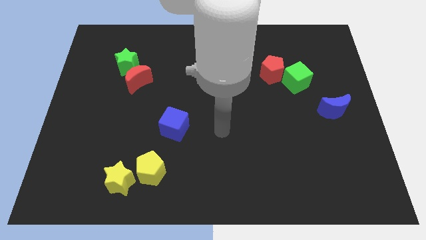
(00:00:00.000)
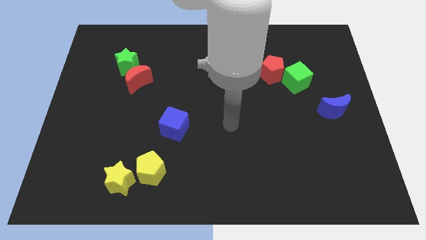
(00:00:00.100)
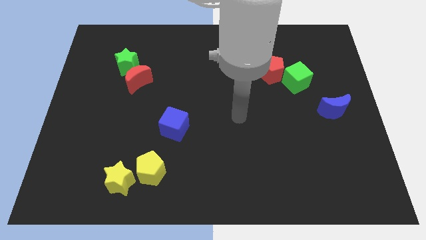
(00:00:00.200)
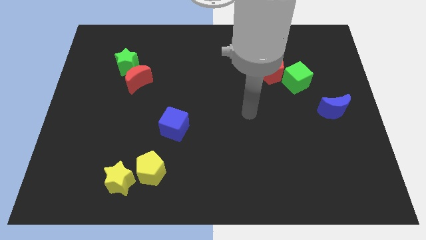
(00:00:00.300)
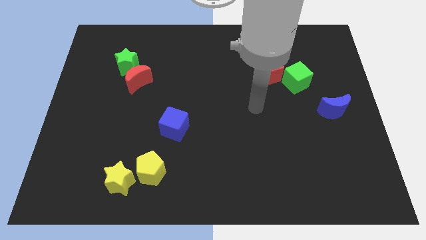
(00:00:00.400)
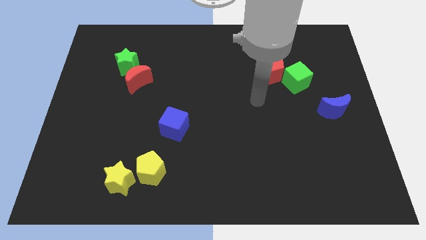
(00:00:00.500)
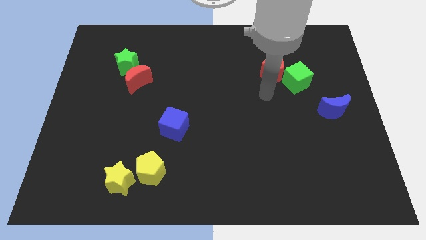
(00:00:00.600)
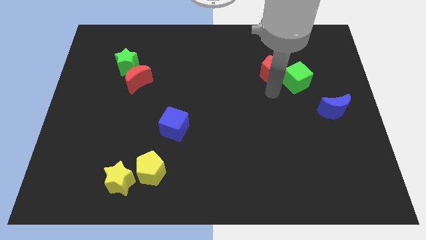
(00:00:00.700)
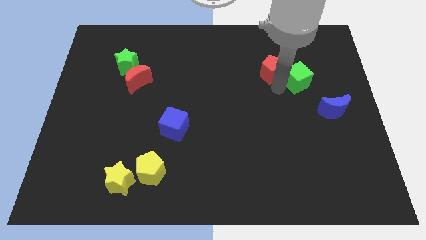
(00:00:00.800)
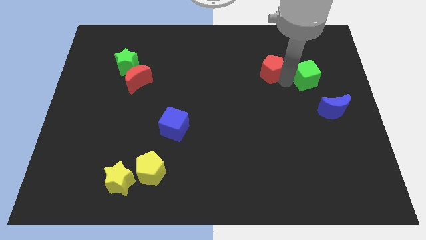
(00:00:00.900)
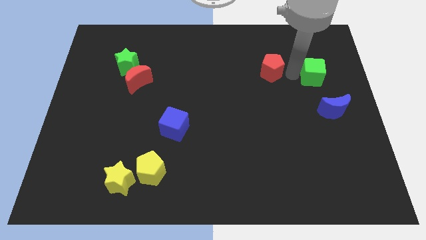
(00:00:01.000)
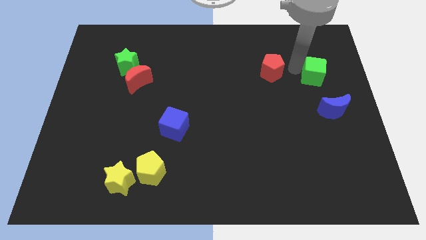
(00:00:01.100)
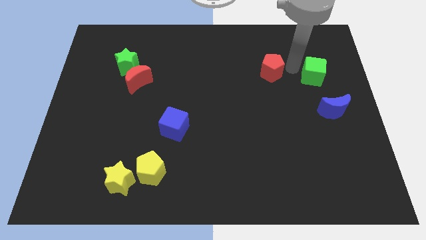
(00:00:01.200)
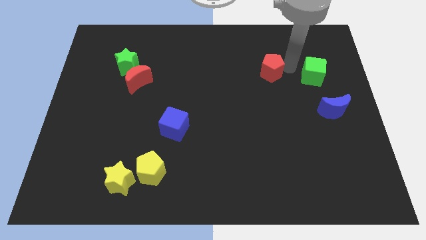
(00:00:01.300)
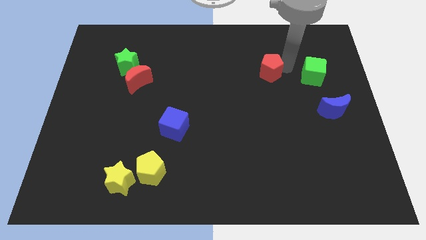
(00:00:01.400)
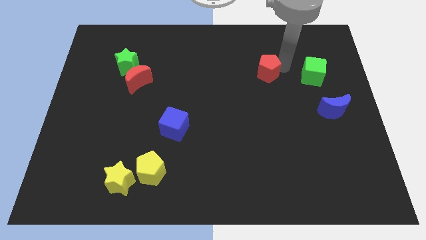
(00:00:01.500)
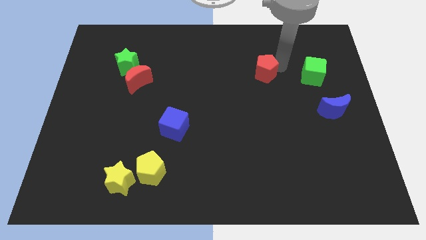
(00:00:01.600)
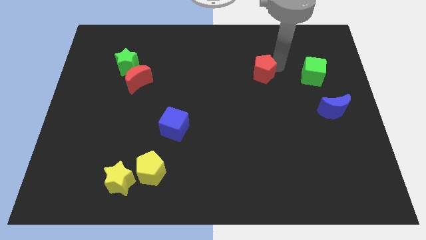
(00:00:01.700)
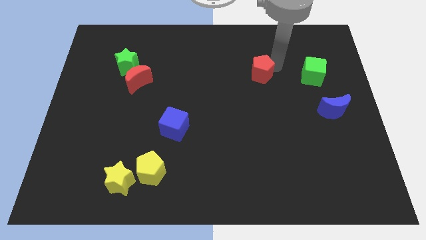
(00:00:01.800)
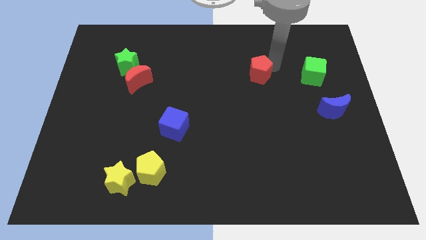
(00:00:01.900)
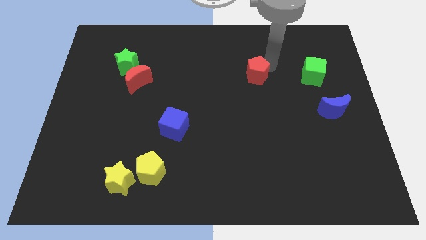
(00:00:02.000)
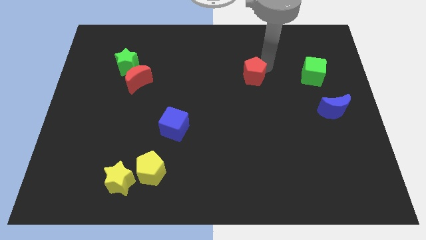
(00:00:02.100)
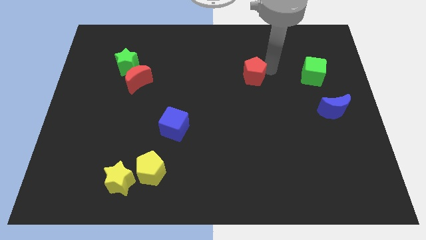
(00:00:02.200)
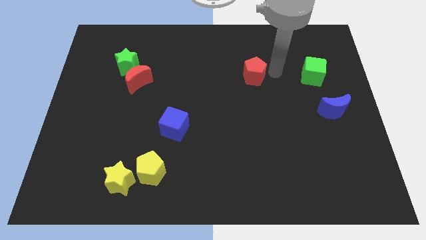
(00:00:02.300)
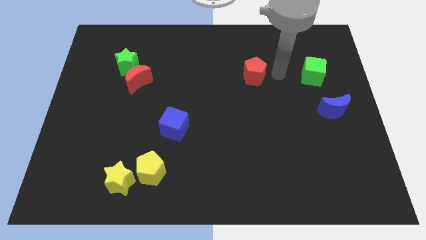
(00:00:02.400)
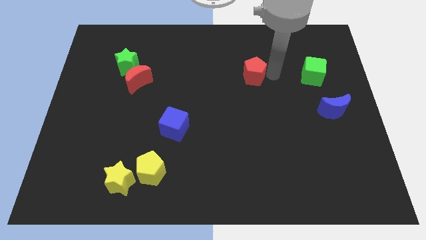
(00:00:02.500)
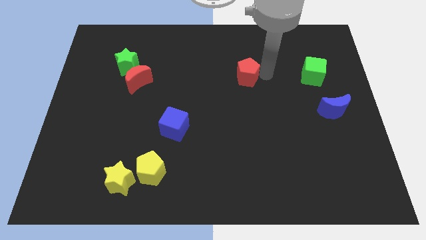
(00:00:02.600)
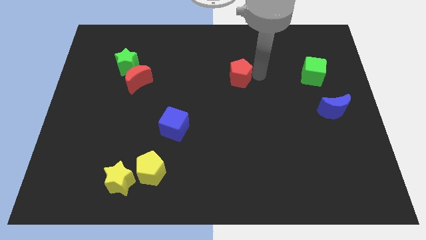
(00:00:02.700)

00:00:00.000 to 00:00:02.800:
slide the red pentagon to the left somewhat

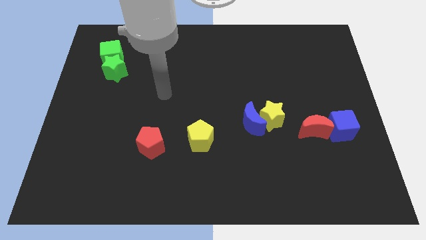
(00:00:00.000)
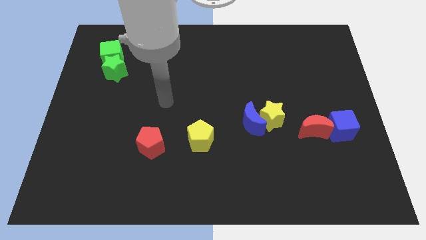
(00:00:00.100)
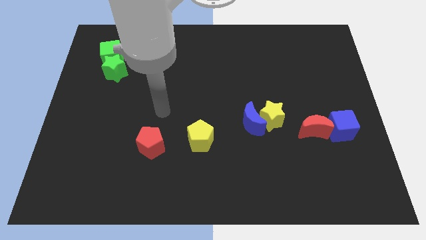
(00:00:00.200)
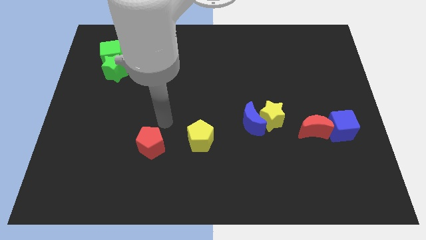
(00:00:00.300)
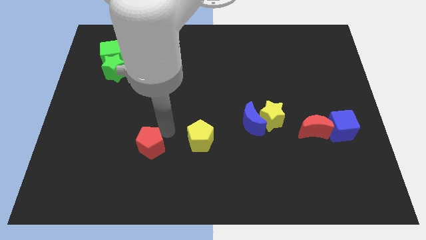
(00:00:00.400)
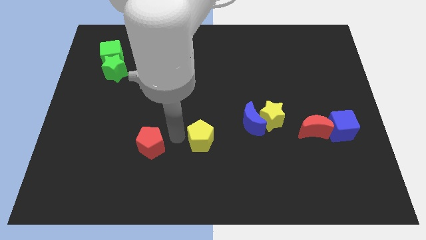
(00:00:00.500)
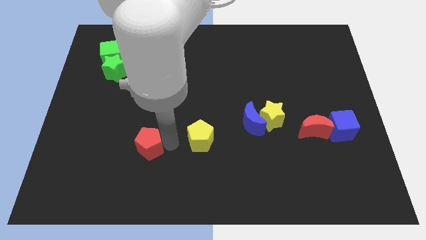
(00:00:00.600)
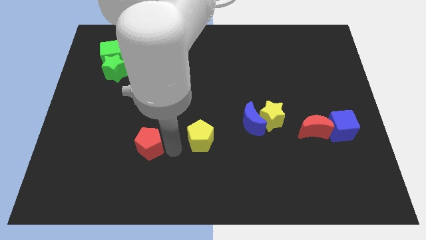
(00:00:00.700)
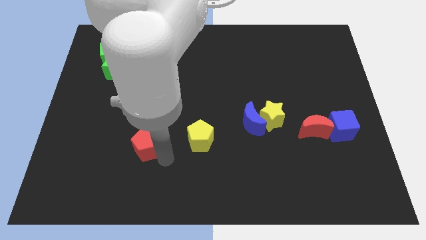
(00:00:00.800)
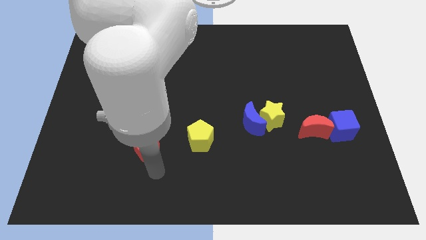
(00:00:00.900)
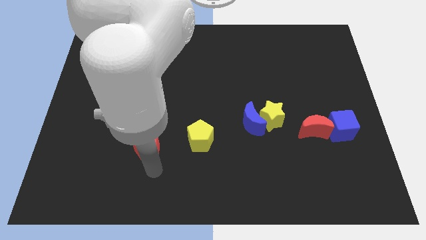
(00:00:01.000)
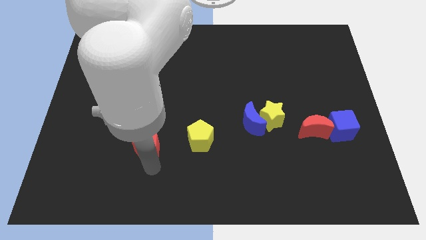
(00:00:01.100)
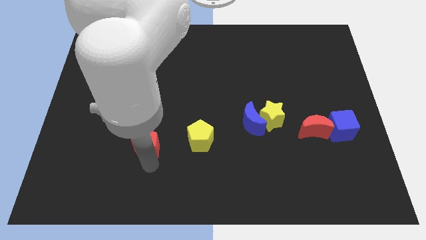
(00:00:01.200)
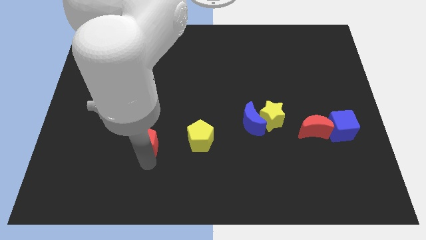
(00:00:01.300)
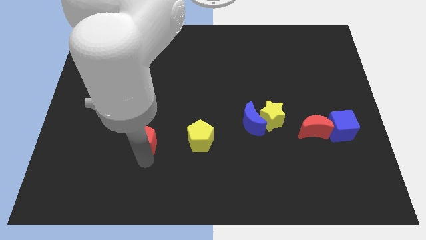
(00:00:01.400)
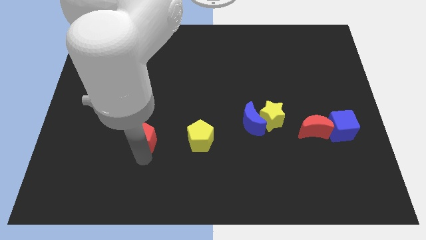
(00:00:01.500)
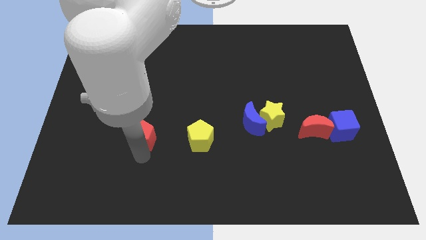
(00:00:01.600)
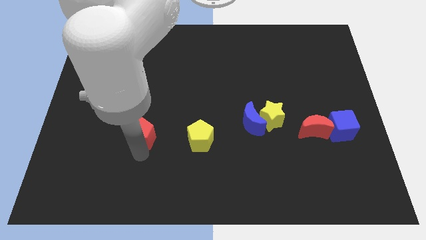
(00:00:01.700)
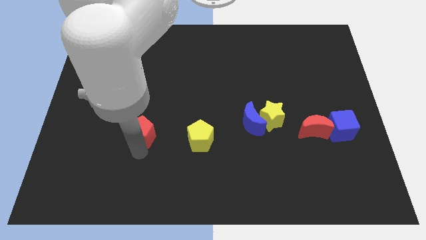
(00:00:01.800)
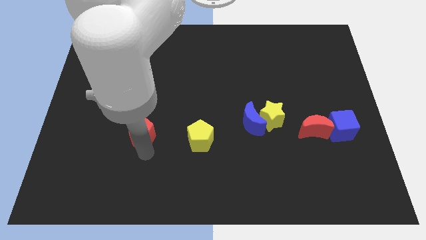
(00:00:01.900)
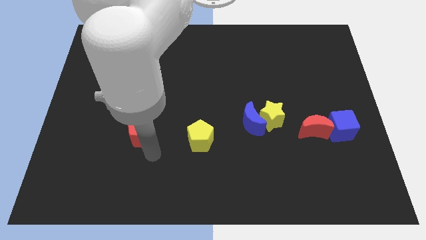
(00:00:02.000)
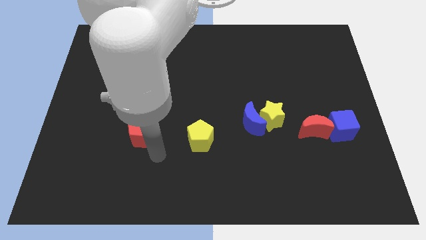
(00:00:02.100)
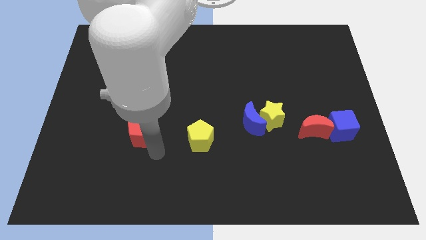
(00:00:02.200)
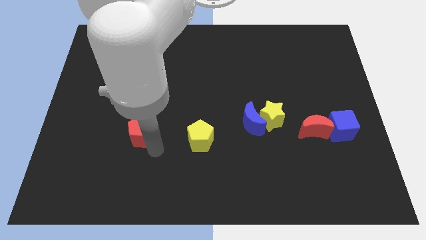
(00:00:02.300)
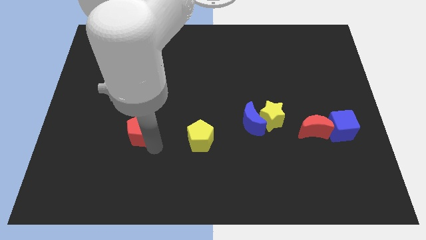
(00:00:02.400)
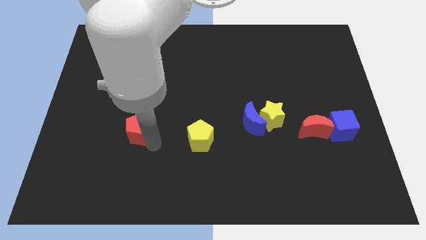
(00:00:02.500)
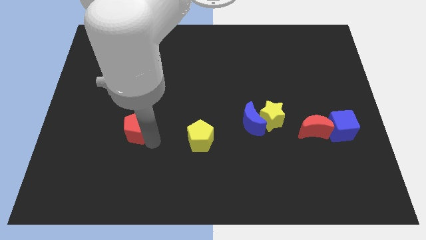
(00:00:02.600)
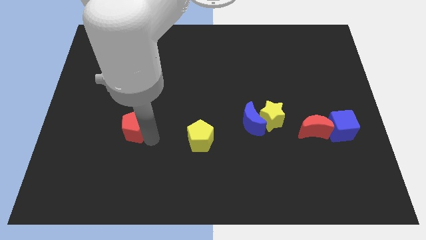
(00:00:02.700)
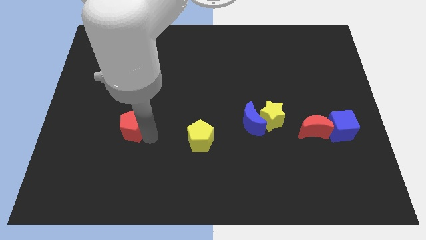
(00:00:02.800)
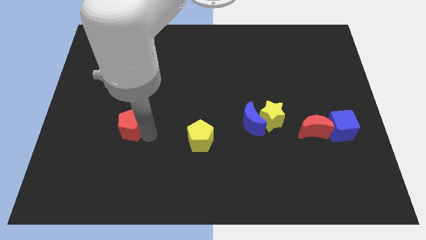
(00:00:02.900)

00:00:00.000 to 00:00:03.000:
slide the red pentagon diagonally up and to the left a little

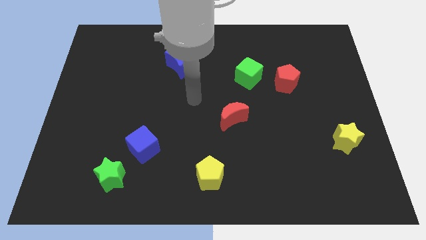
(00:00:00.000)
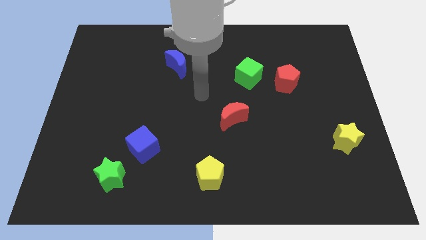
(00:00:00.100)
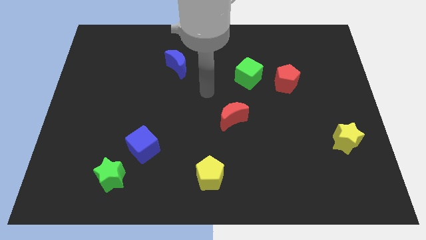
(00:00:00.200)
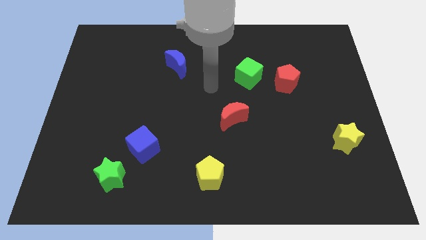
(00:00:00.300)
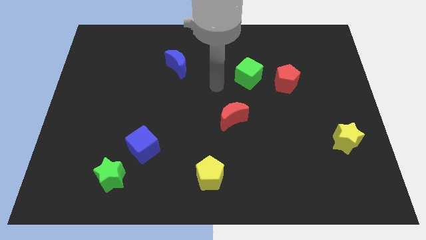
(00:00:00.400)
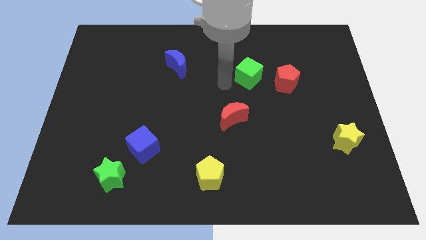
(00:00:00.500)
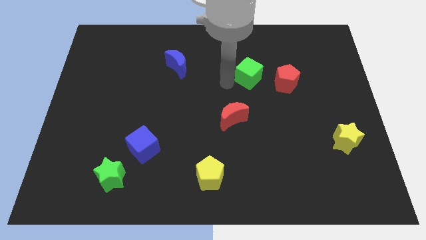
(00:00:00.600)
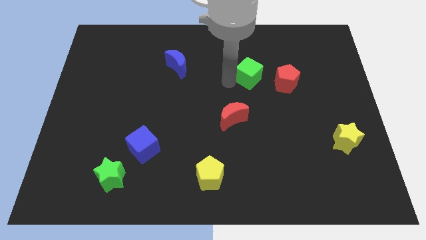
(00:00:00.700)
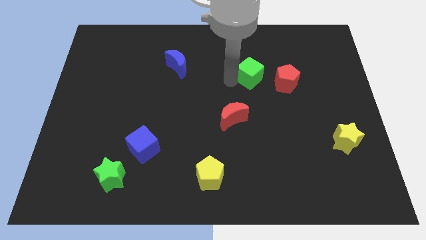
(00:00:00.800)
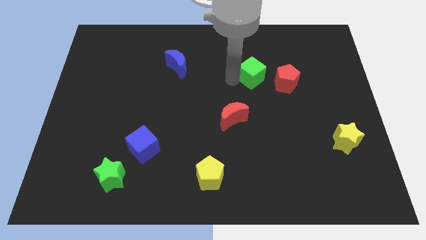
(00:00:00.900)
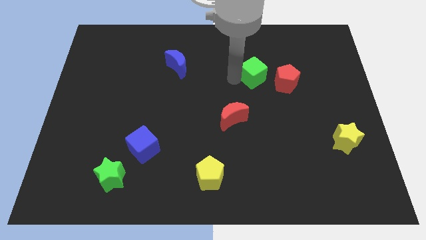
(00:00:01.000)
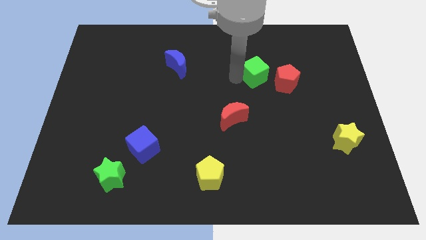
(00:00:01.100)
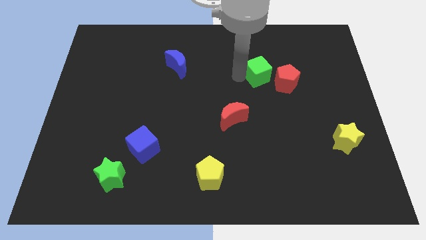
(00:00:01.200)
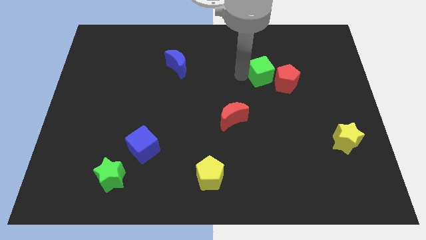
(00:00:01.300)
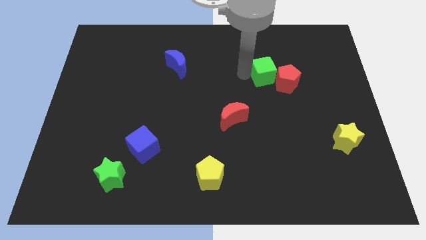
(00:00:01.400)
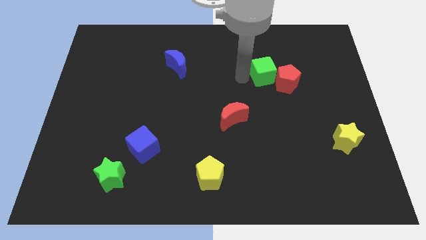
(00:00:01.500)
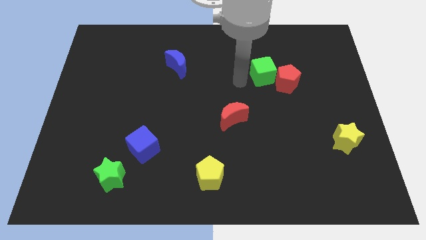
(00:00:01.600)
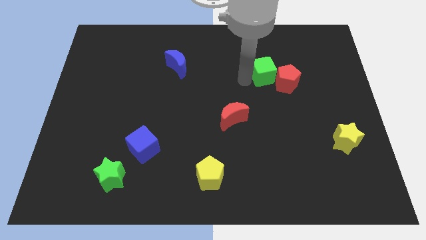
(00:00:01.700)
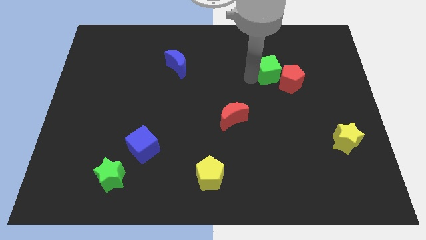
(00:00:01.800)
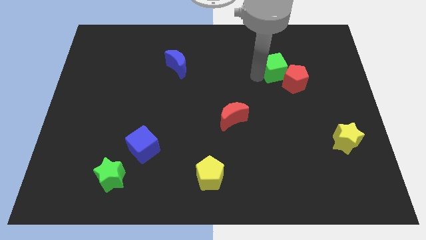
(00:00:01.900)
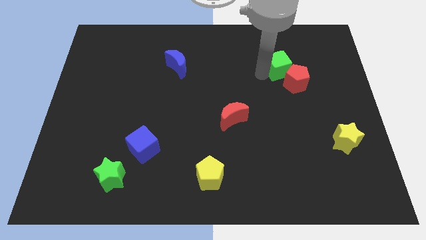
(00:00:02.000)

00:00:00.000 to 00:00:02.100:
slide the green cube to the right slightly

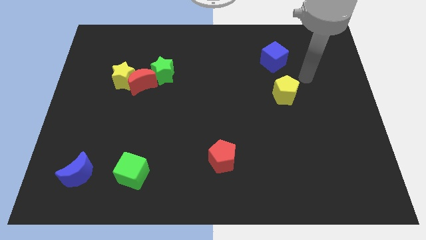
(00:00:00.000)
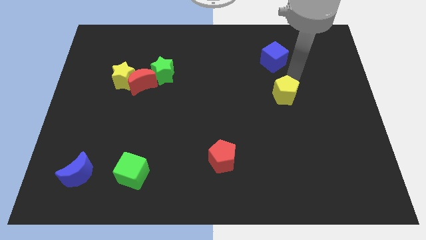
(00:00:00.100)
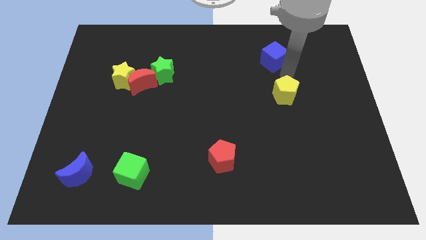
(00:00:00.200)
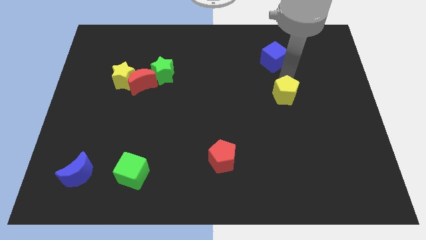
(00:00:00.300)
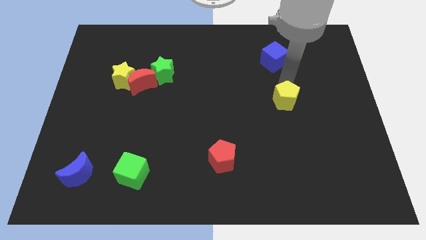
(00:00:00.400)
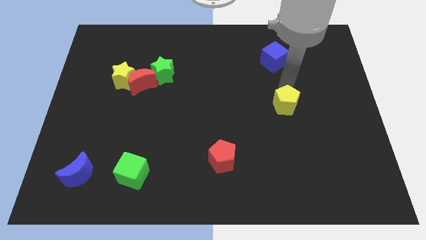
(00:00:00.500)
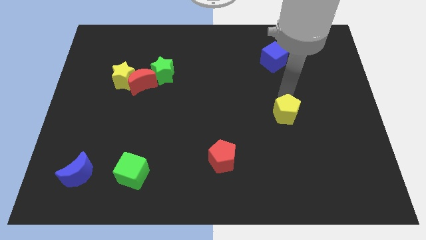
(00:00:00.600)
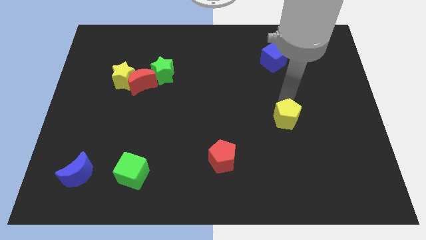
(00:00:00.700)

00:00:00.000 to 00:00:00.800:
push the yellow pentagon a bit down
